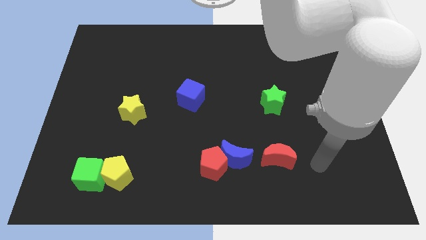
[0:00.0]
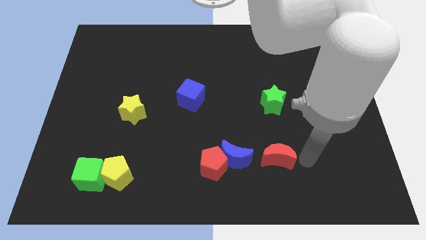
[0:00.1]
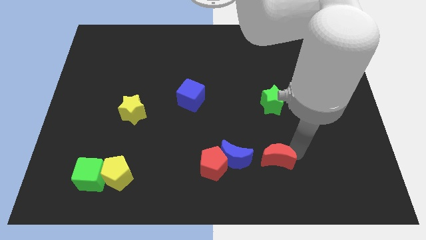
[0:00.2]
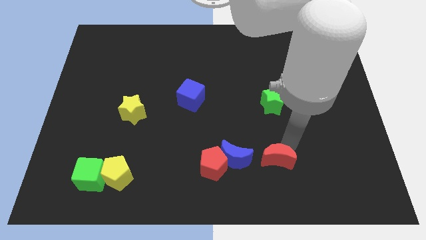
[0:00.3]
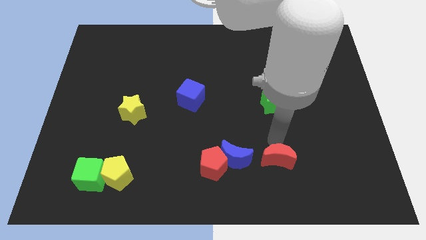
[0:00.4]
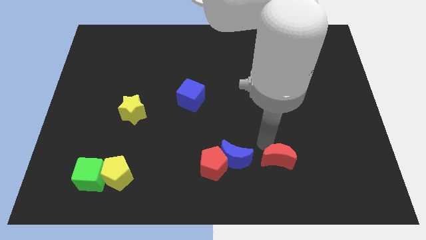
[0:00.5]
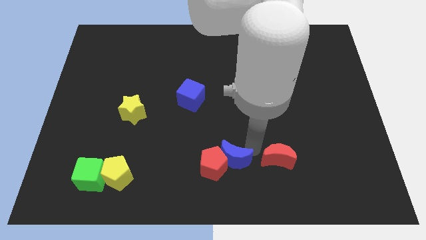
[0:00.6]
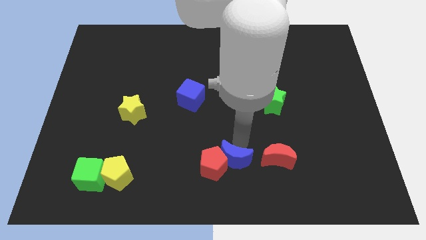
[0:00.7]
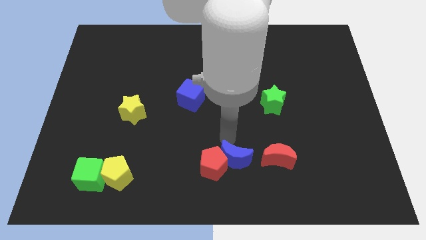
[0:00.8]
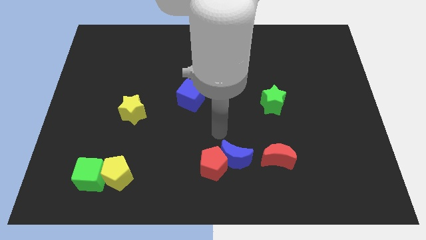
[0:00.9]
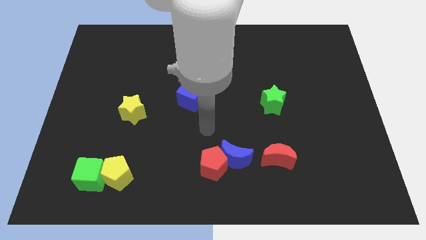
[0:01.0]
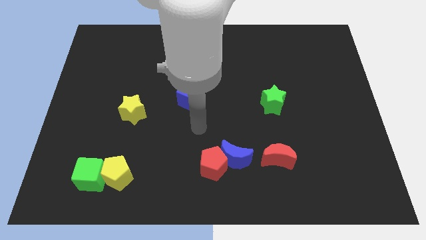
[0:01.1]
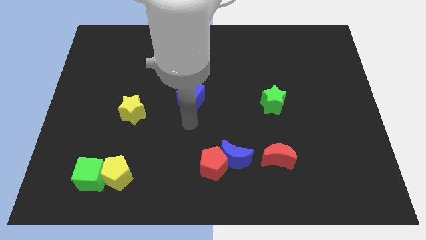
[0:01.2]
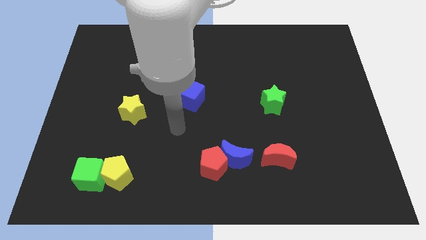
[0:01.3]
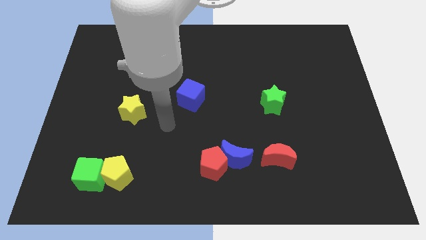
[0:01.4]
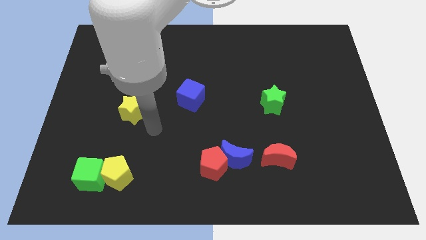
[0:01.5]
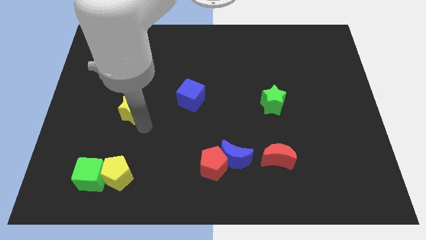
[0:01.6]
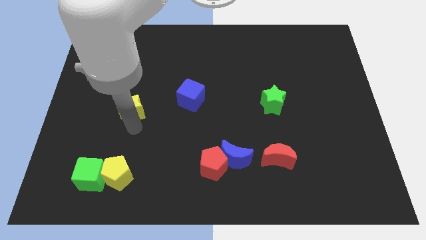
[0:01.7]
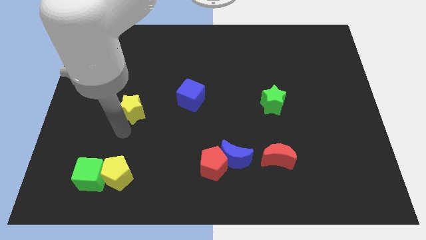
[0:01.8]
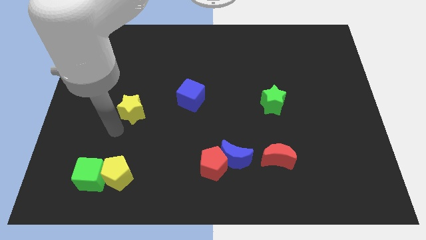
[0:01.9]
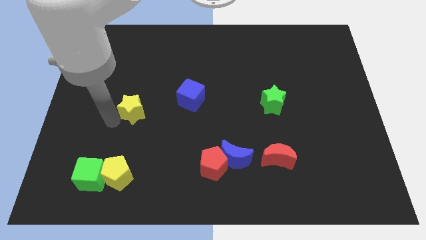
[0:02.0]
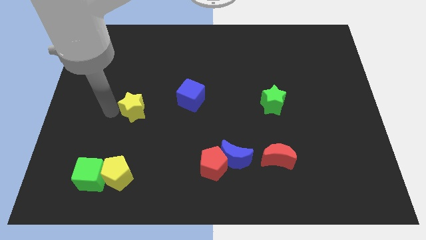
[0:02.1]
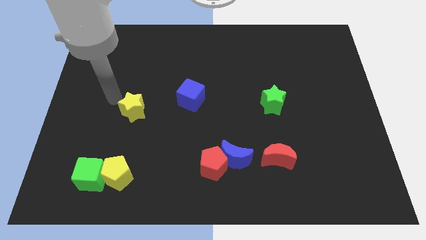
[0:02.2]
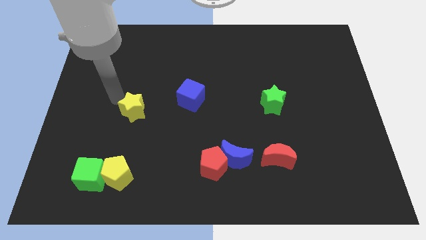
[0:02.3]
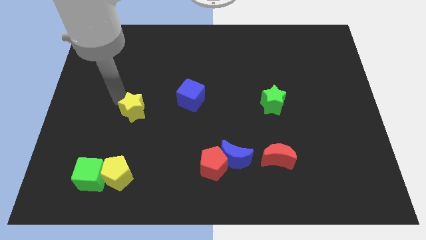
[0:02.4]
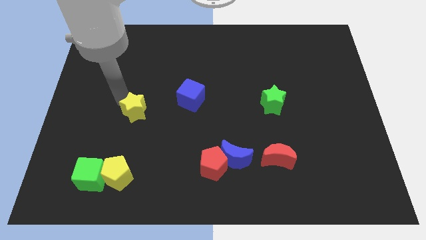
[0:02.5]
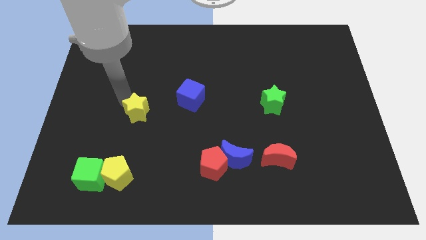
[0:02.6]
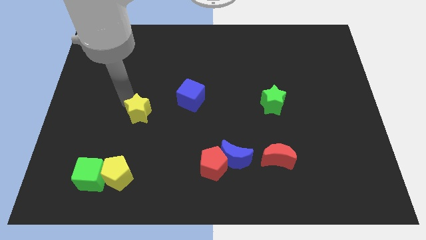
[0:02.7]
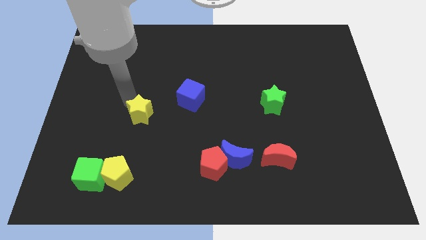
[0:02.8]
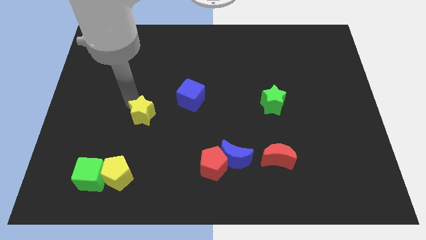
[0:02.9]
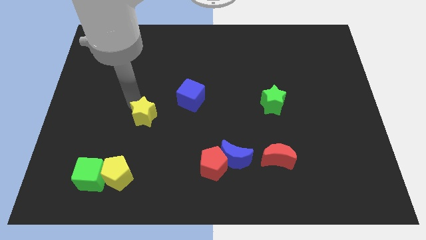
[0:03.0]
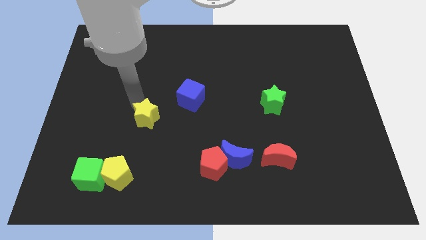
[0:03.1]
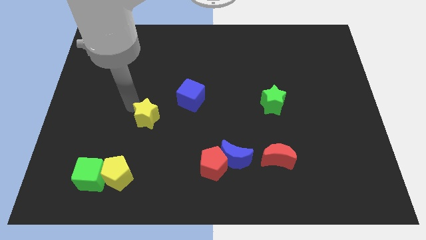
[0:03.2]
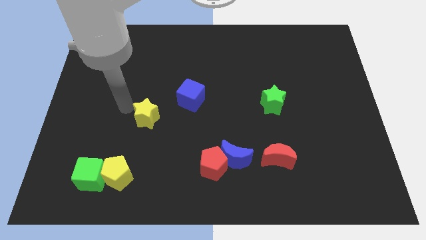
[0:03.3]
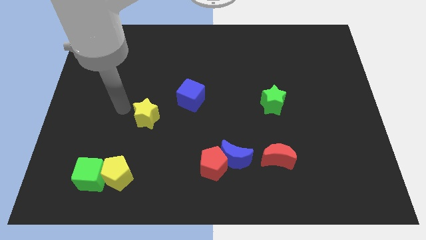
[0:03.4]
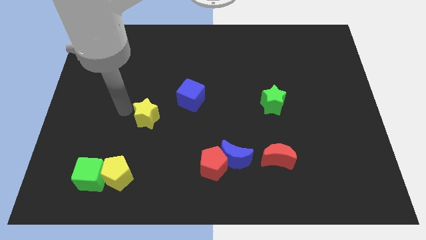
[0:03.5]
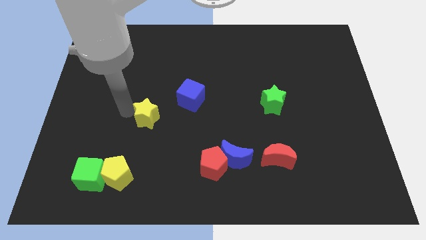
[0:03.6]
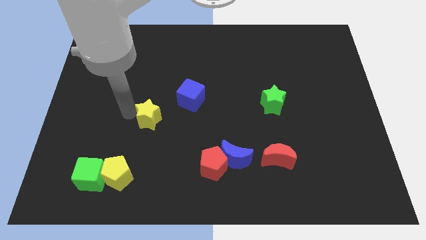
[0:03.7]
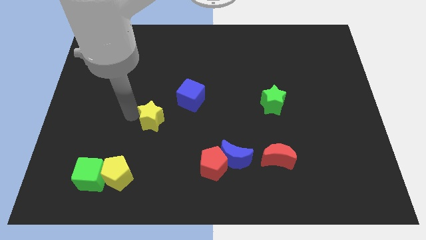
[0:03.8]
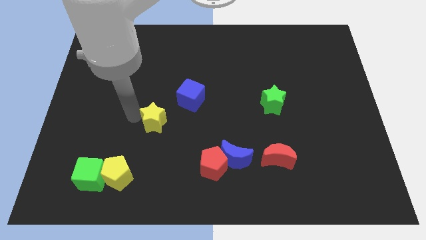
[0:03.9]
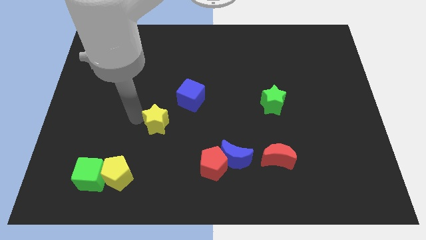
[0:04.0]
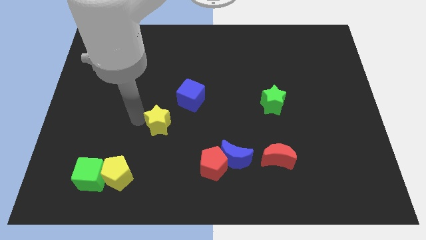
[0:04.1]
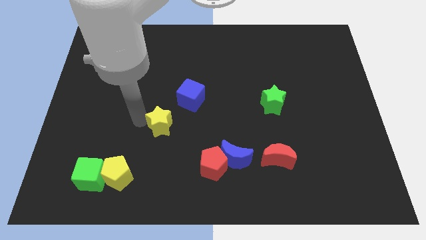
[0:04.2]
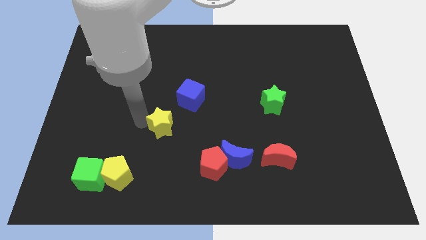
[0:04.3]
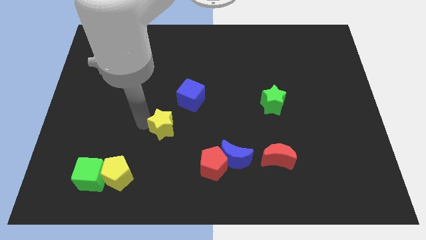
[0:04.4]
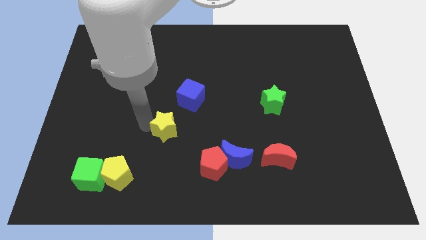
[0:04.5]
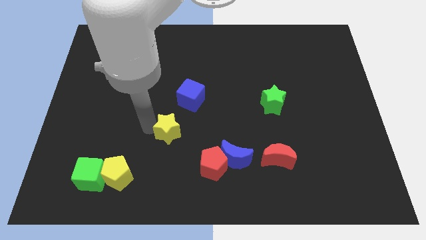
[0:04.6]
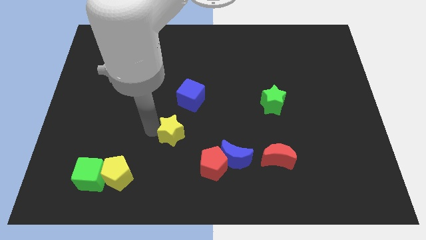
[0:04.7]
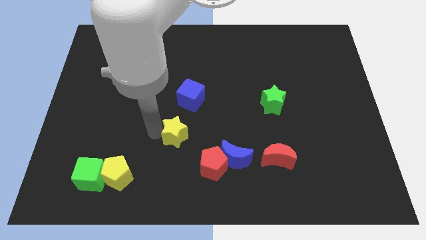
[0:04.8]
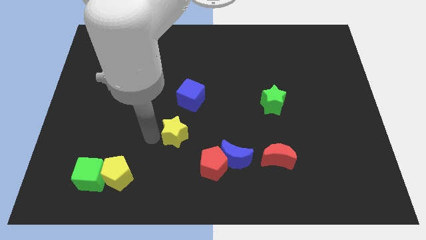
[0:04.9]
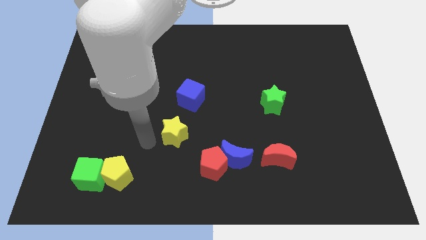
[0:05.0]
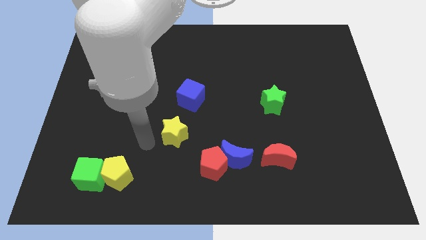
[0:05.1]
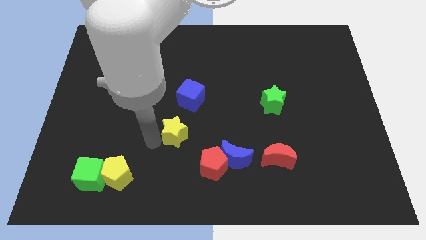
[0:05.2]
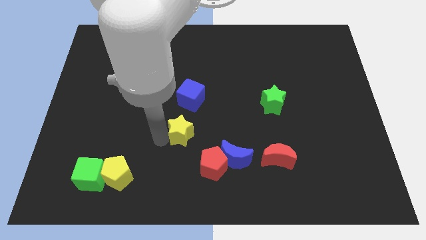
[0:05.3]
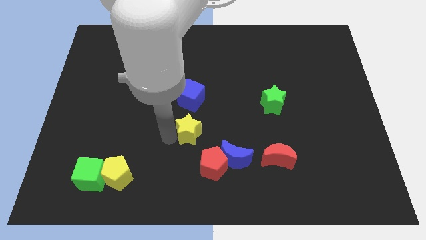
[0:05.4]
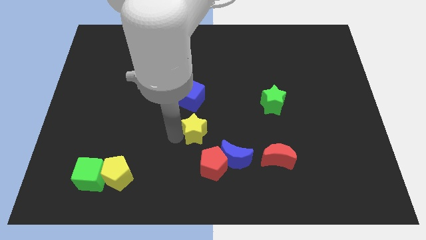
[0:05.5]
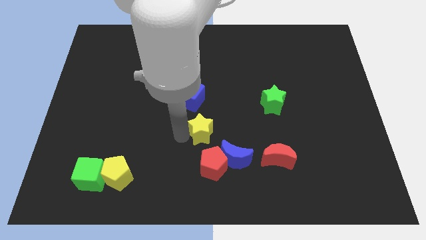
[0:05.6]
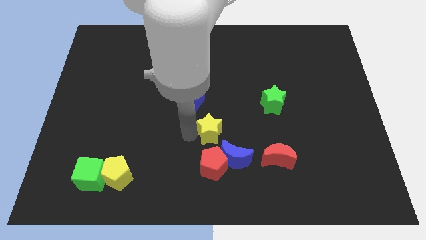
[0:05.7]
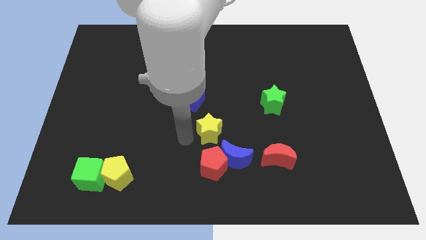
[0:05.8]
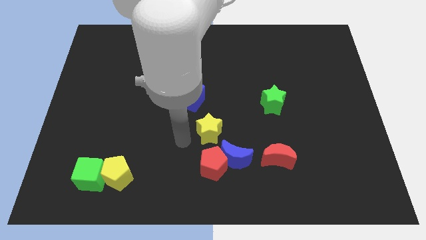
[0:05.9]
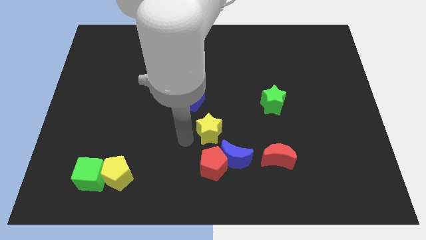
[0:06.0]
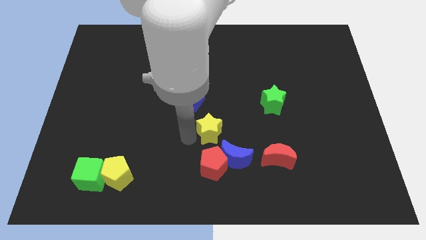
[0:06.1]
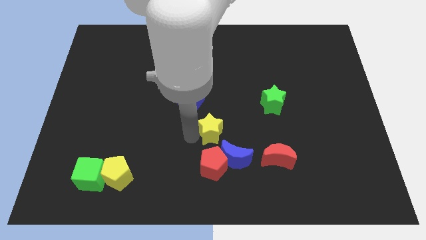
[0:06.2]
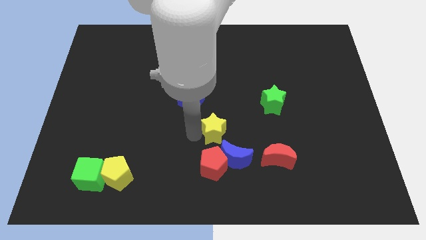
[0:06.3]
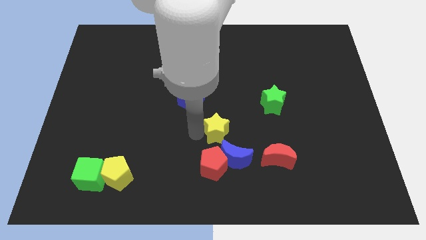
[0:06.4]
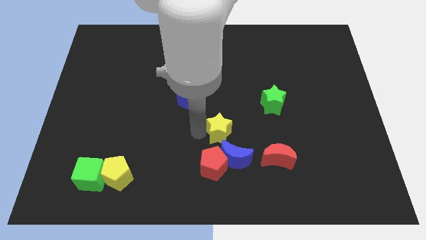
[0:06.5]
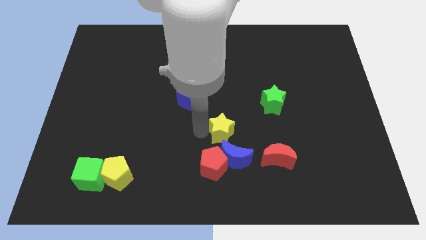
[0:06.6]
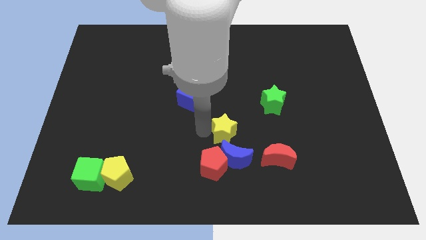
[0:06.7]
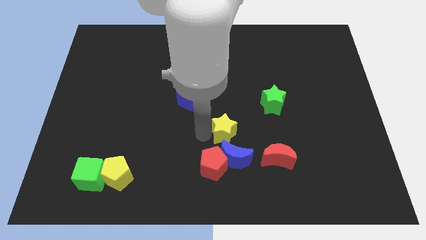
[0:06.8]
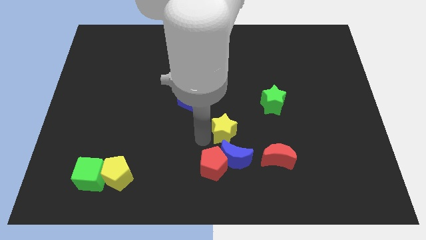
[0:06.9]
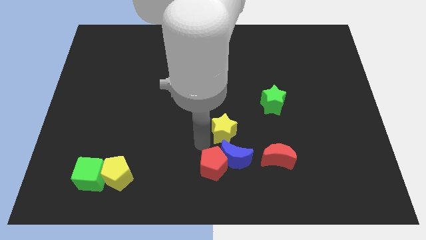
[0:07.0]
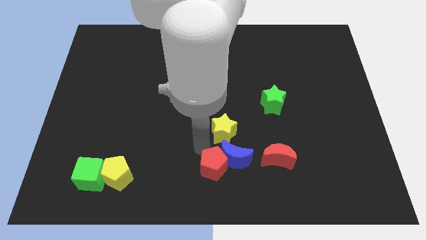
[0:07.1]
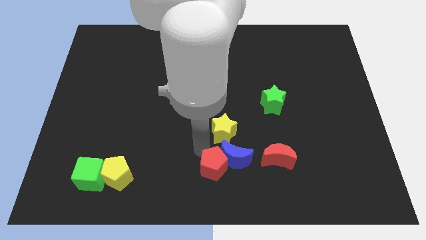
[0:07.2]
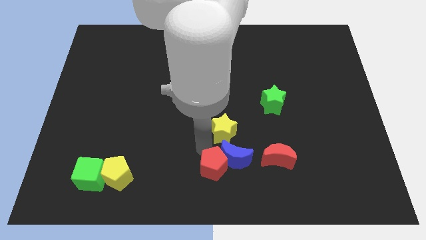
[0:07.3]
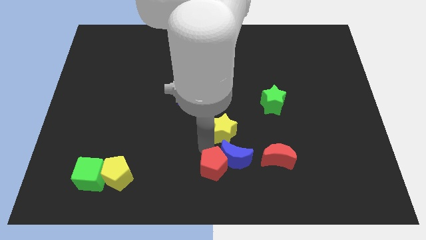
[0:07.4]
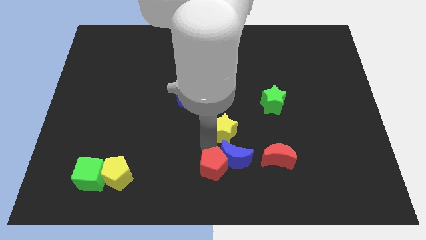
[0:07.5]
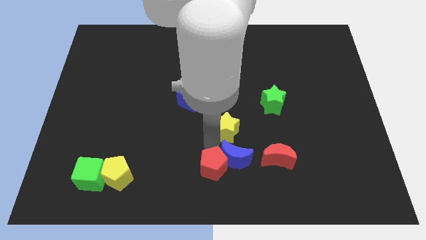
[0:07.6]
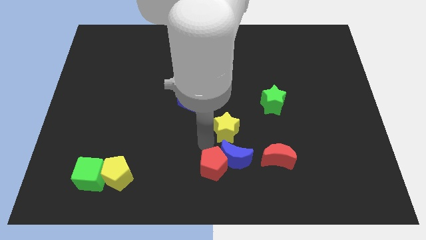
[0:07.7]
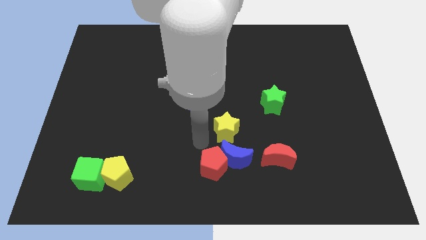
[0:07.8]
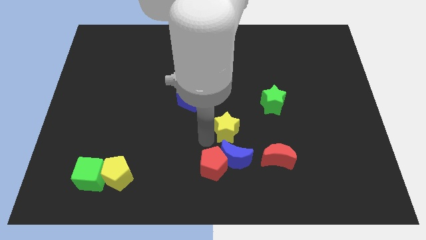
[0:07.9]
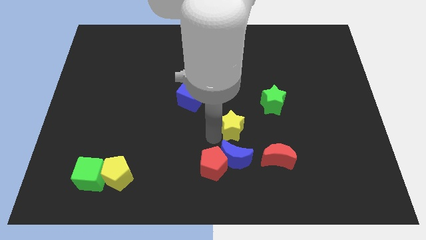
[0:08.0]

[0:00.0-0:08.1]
slide the yellow star to the bottom left side of the green star

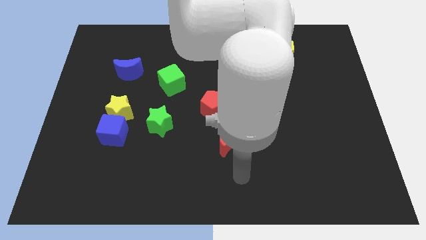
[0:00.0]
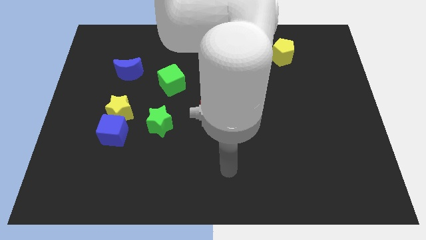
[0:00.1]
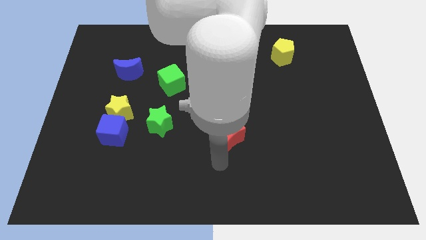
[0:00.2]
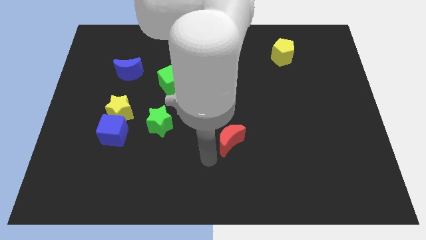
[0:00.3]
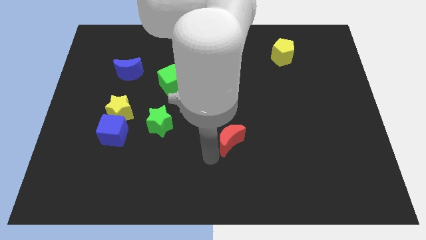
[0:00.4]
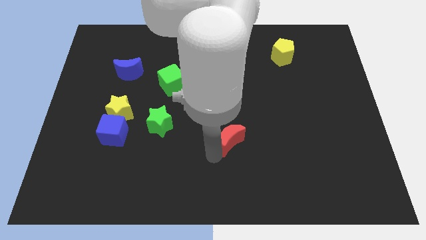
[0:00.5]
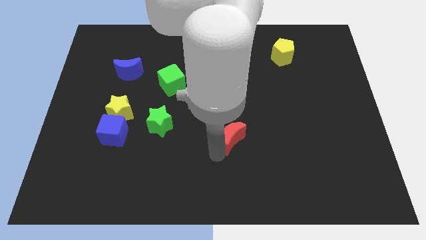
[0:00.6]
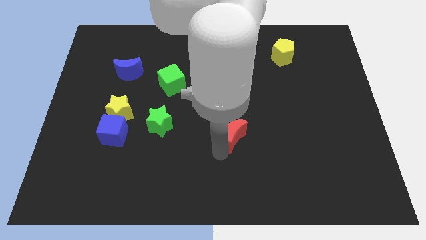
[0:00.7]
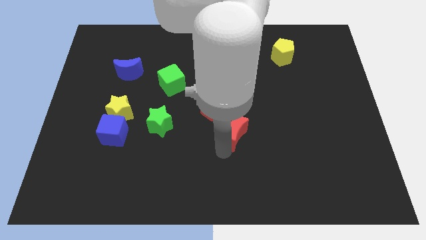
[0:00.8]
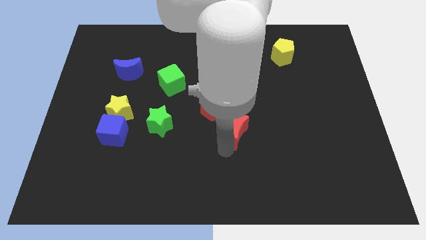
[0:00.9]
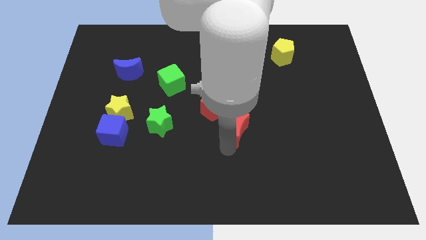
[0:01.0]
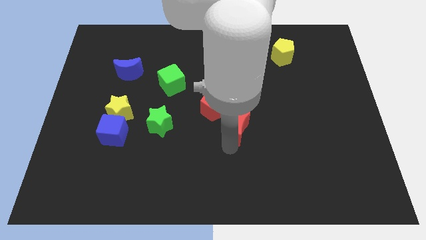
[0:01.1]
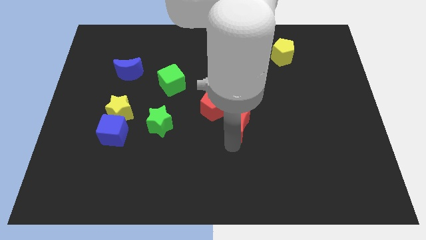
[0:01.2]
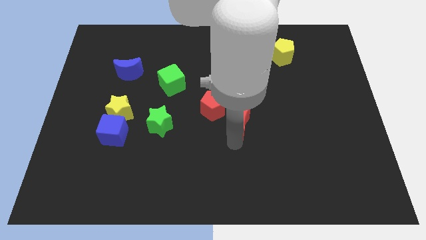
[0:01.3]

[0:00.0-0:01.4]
put the red moon to the right of the red pentagon
